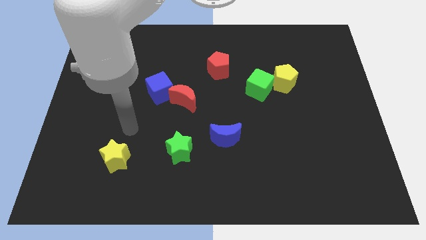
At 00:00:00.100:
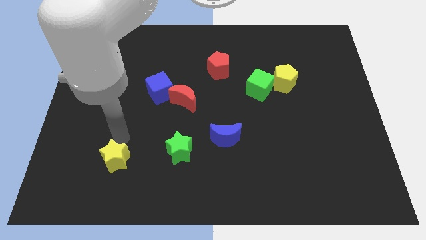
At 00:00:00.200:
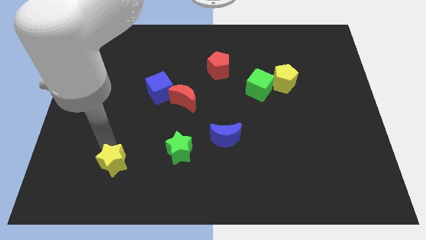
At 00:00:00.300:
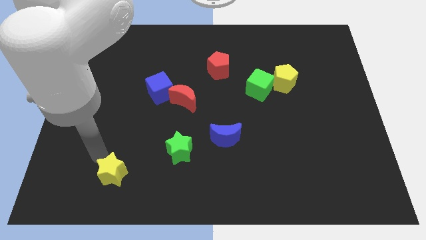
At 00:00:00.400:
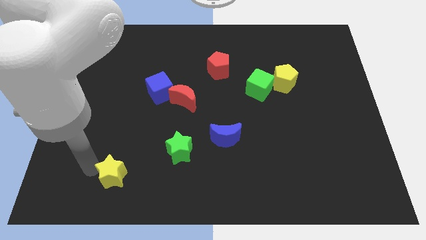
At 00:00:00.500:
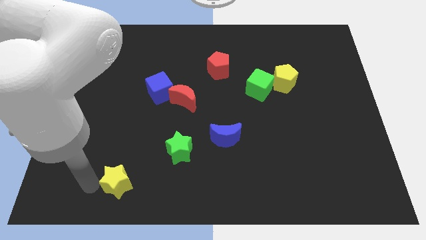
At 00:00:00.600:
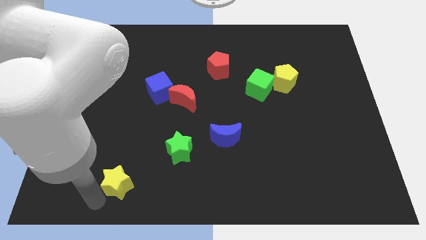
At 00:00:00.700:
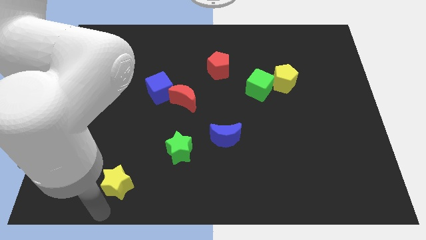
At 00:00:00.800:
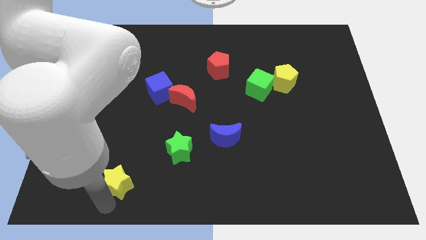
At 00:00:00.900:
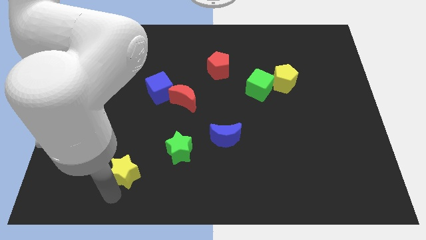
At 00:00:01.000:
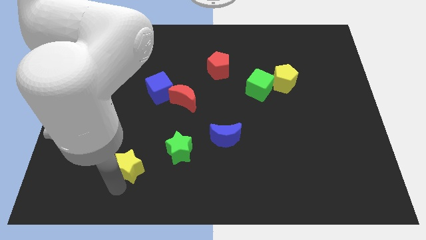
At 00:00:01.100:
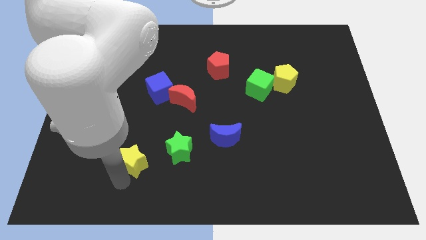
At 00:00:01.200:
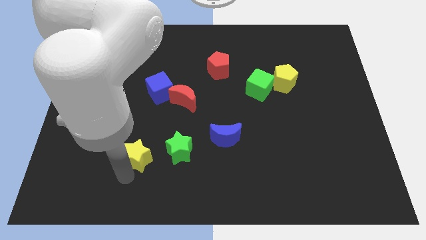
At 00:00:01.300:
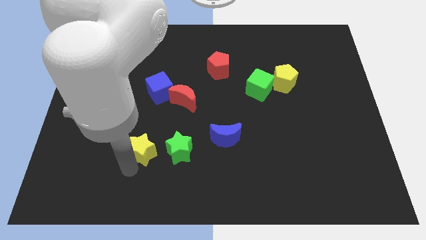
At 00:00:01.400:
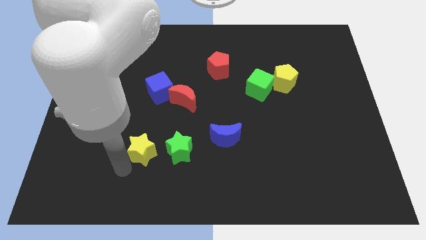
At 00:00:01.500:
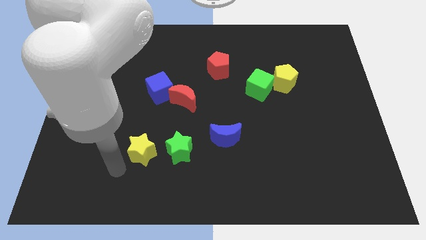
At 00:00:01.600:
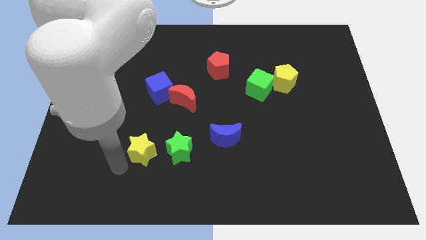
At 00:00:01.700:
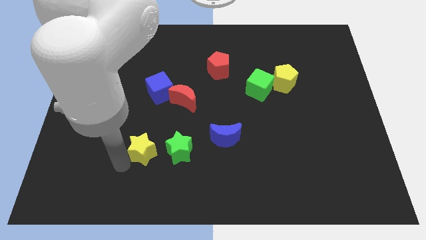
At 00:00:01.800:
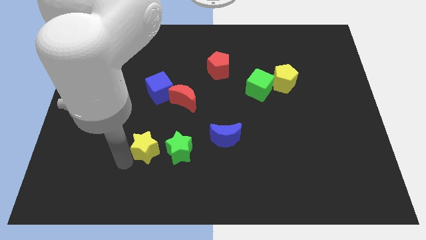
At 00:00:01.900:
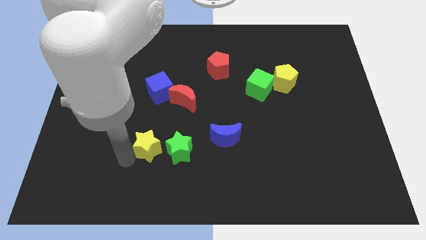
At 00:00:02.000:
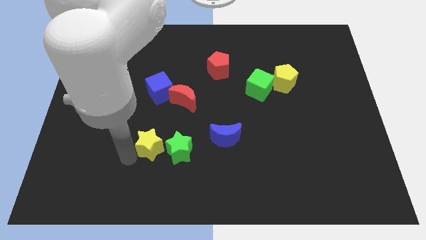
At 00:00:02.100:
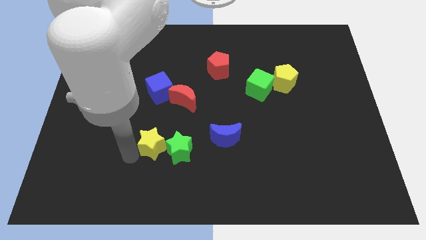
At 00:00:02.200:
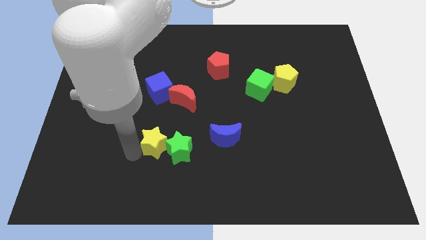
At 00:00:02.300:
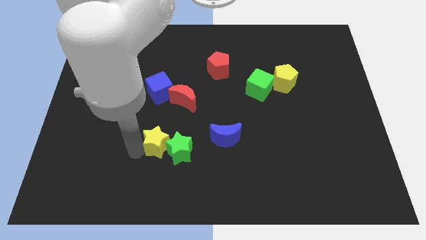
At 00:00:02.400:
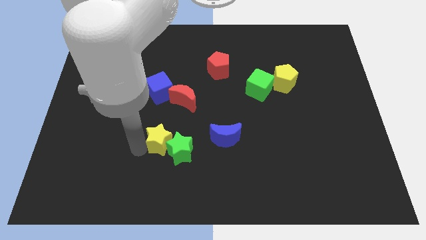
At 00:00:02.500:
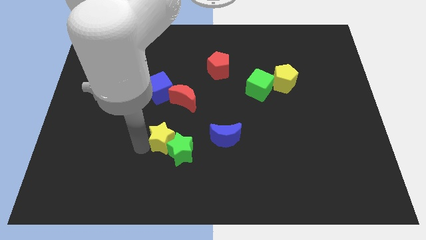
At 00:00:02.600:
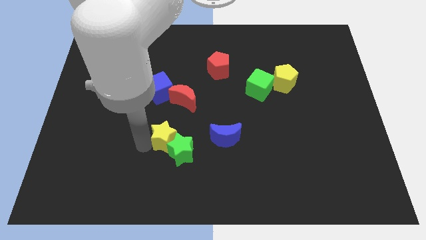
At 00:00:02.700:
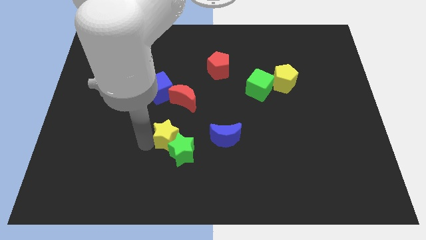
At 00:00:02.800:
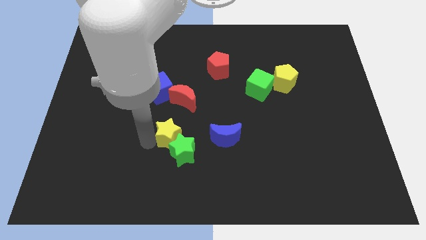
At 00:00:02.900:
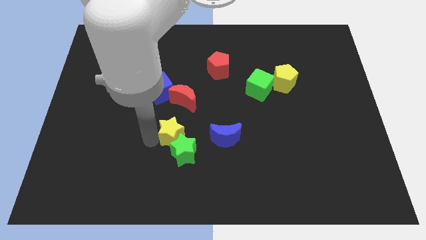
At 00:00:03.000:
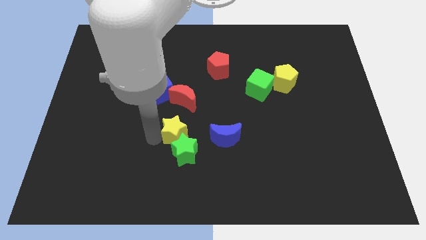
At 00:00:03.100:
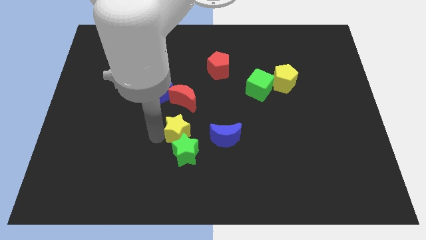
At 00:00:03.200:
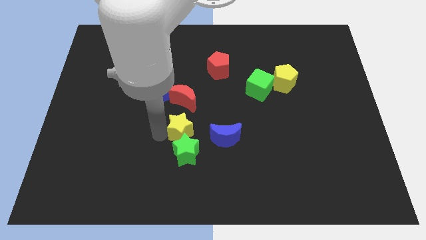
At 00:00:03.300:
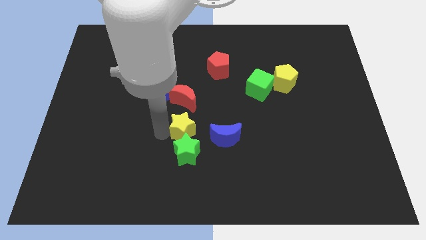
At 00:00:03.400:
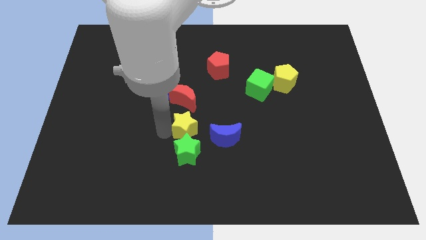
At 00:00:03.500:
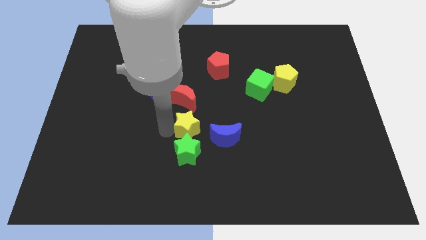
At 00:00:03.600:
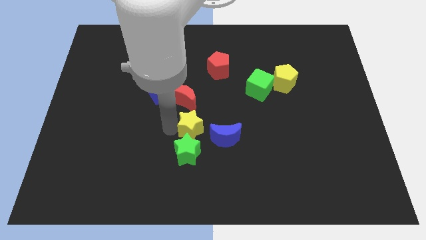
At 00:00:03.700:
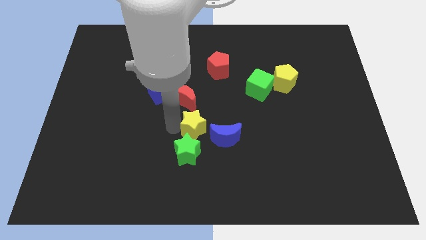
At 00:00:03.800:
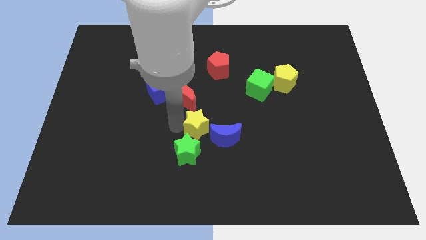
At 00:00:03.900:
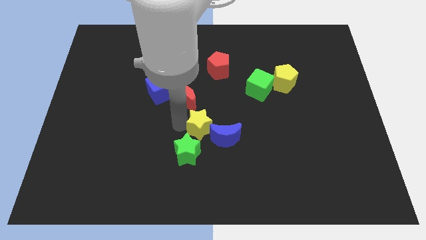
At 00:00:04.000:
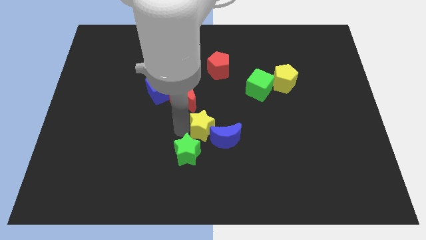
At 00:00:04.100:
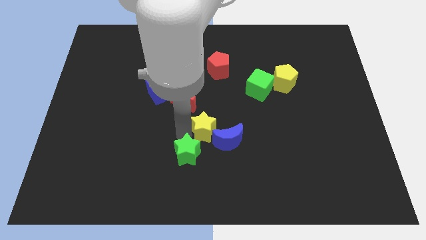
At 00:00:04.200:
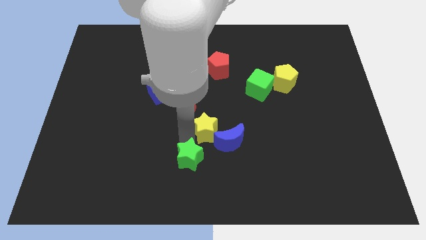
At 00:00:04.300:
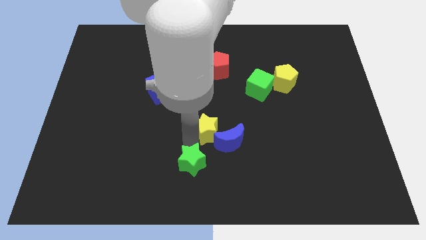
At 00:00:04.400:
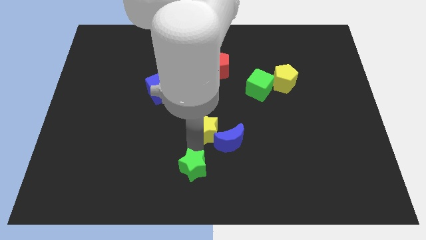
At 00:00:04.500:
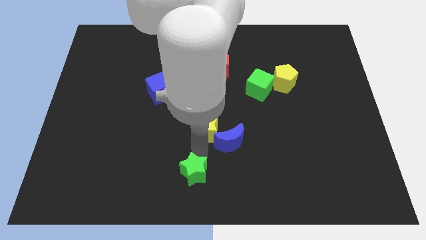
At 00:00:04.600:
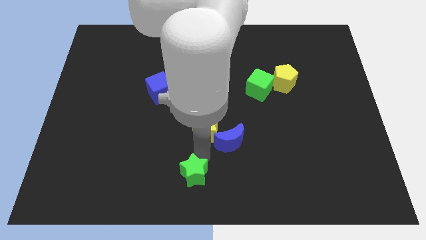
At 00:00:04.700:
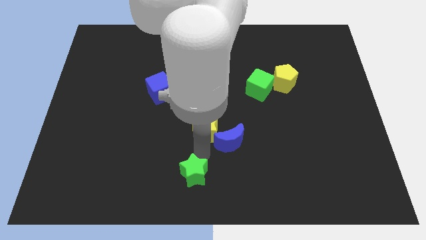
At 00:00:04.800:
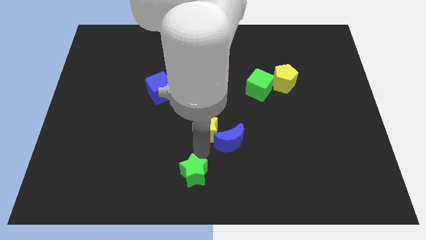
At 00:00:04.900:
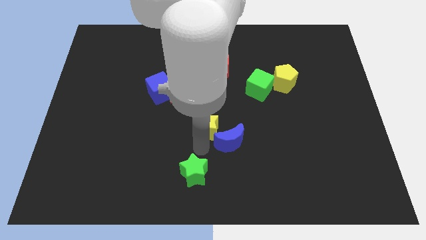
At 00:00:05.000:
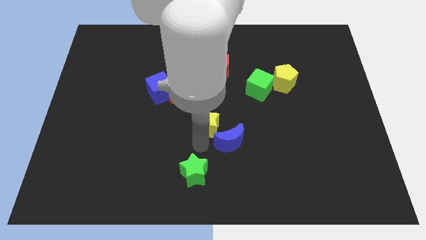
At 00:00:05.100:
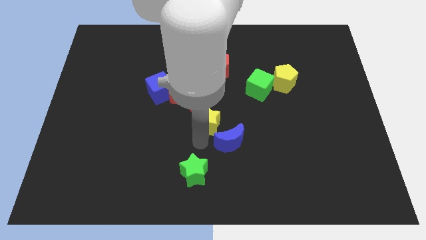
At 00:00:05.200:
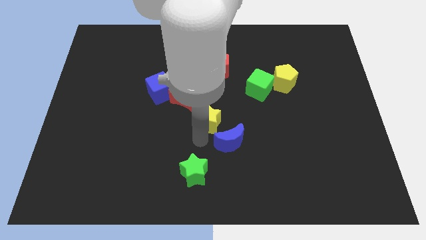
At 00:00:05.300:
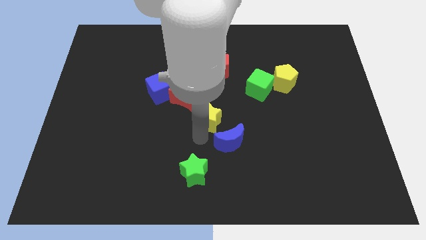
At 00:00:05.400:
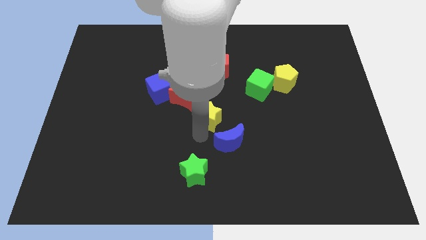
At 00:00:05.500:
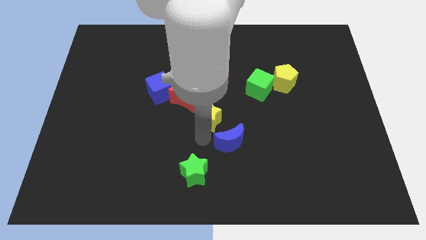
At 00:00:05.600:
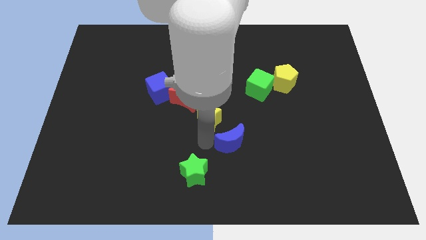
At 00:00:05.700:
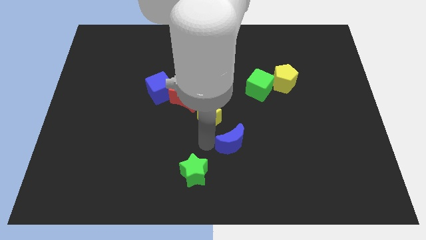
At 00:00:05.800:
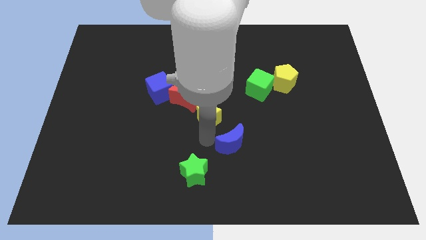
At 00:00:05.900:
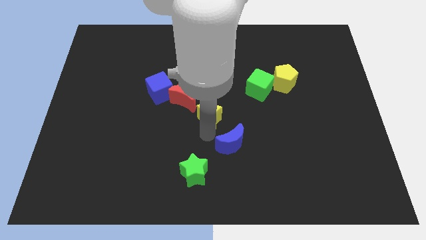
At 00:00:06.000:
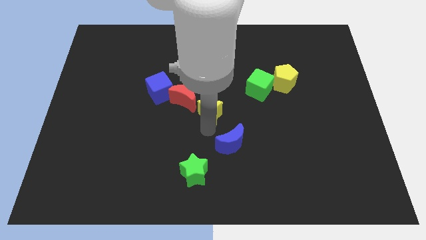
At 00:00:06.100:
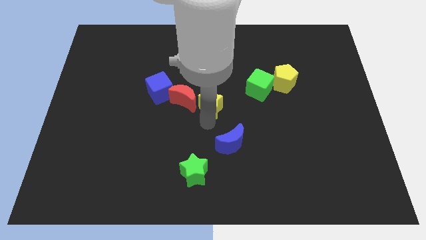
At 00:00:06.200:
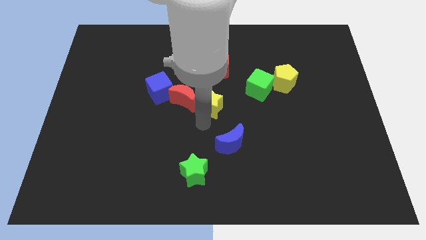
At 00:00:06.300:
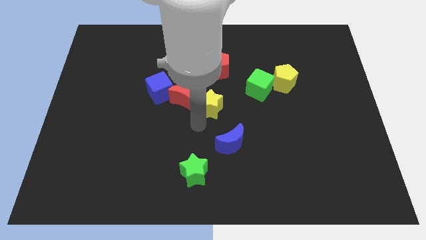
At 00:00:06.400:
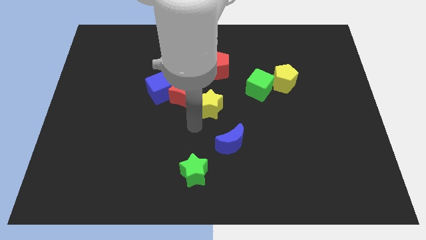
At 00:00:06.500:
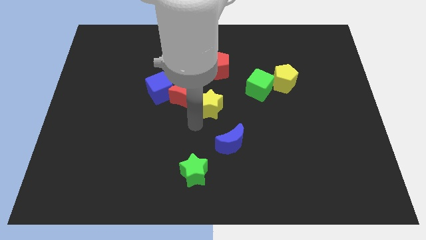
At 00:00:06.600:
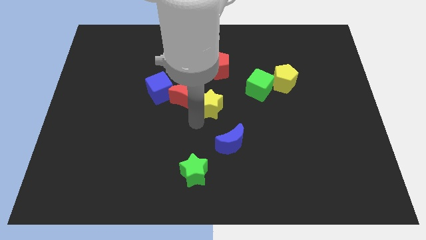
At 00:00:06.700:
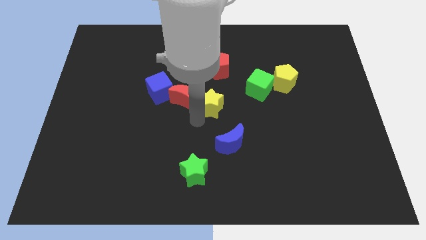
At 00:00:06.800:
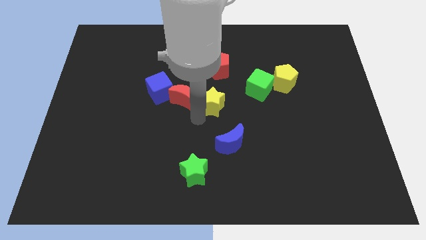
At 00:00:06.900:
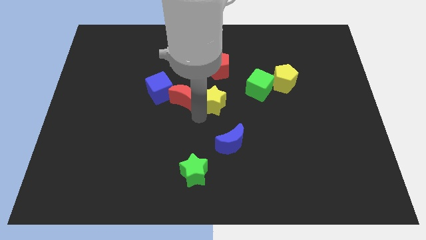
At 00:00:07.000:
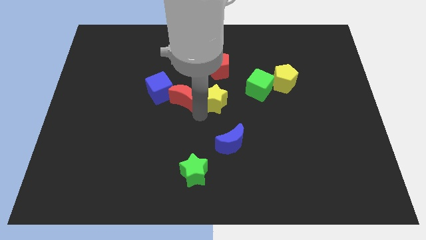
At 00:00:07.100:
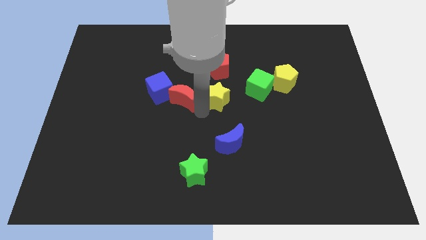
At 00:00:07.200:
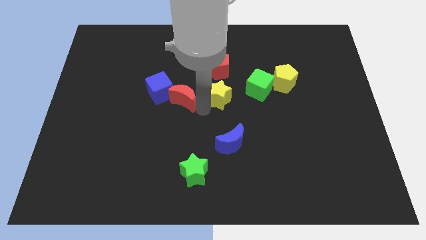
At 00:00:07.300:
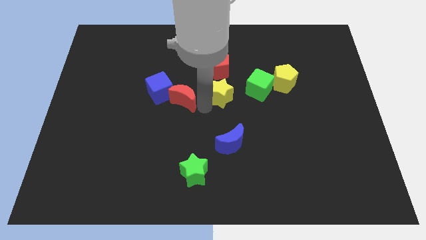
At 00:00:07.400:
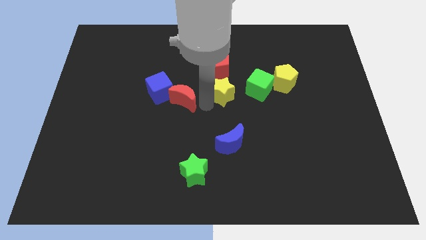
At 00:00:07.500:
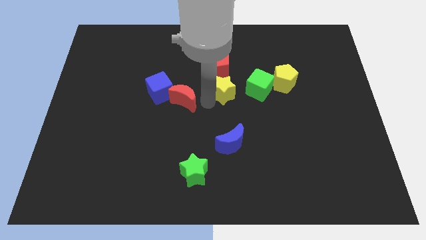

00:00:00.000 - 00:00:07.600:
move the yellow star to the bottom right of the red pentagon

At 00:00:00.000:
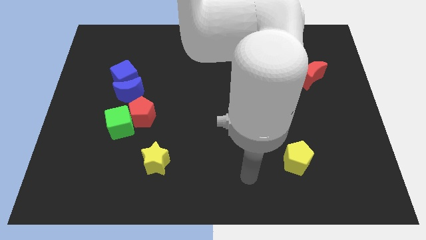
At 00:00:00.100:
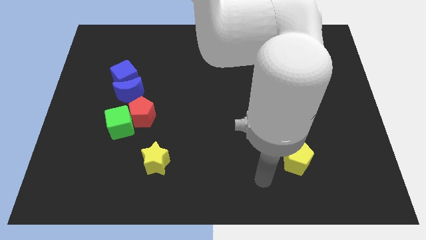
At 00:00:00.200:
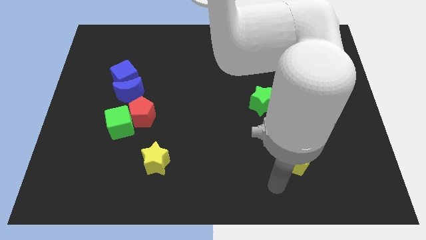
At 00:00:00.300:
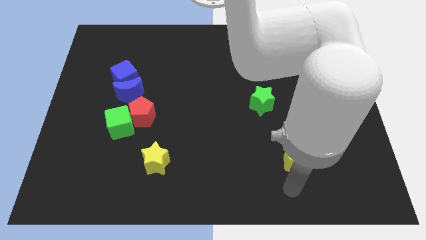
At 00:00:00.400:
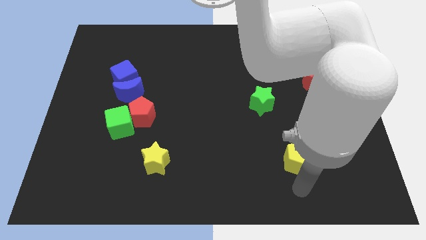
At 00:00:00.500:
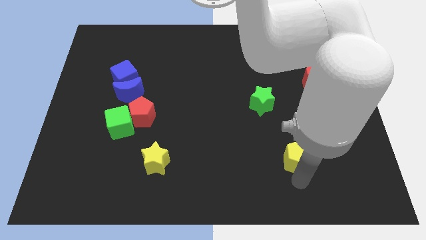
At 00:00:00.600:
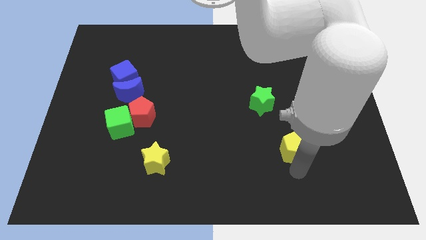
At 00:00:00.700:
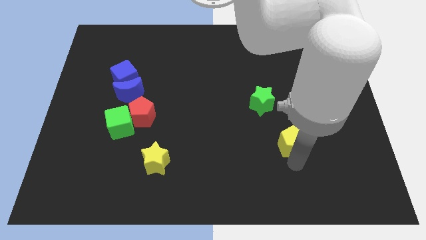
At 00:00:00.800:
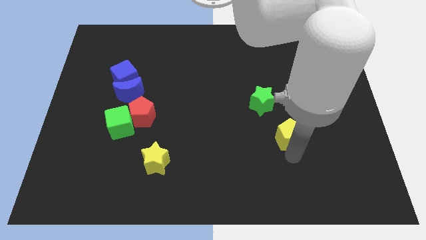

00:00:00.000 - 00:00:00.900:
put the yellow pentagon to the bottom right side of the green star
